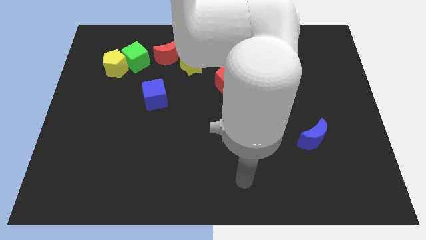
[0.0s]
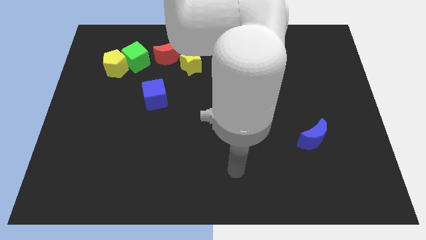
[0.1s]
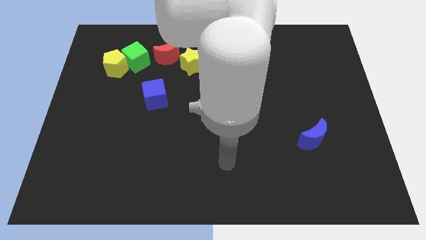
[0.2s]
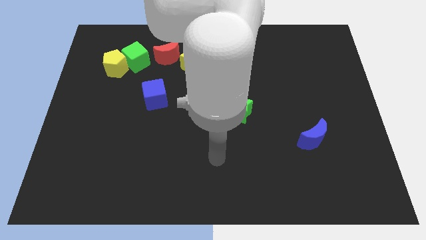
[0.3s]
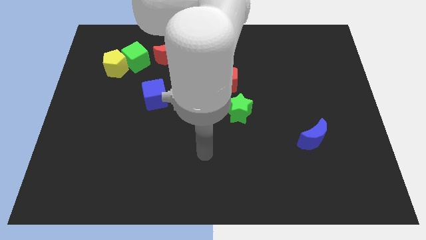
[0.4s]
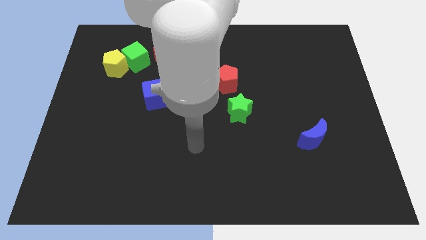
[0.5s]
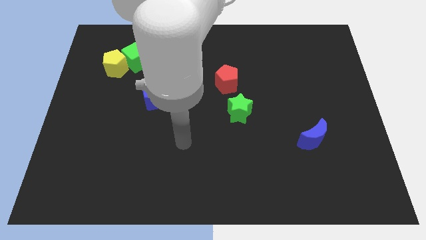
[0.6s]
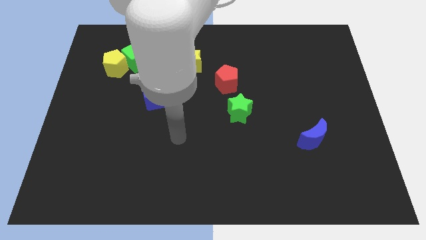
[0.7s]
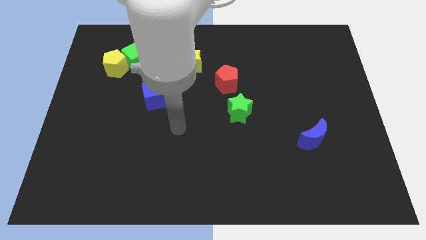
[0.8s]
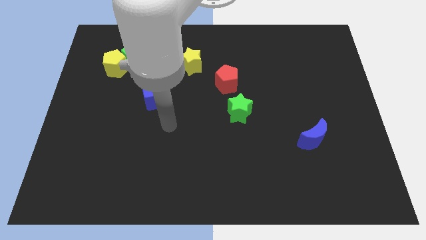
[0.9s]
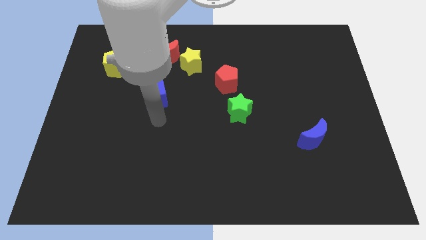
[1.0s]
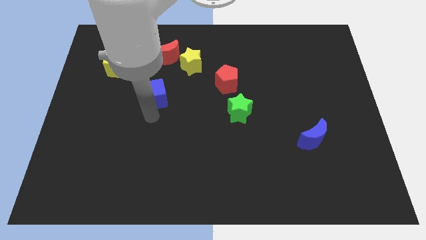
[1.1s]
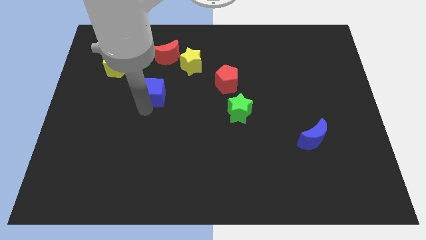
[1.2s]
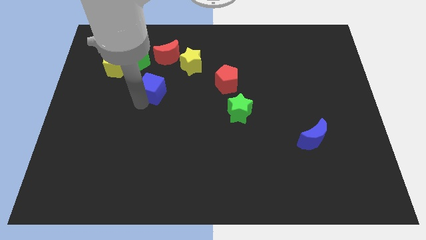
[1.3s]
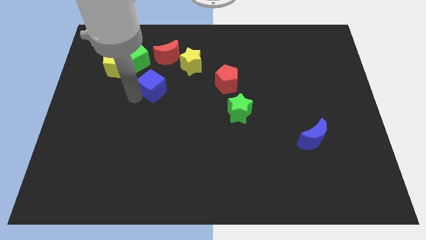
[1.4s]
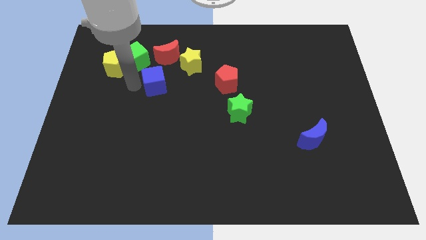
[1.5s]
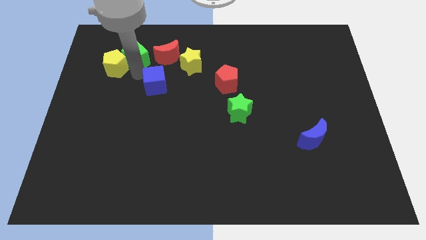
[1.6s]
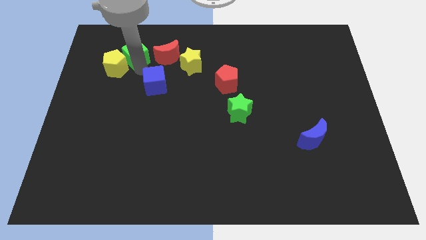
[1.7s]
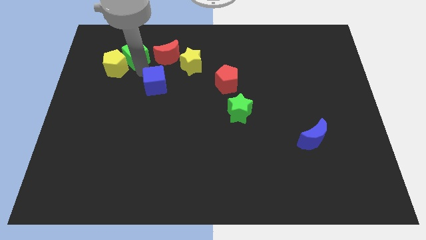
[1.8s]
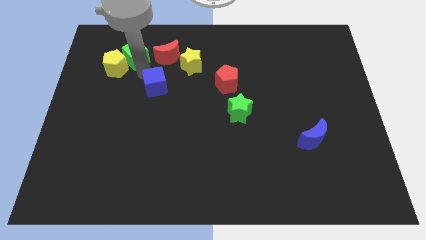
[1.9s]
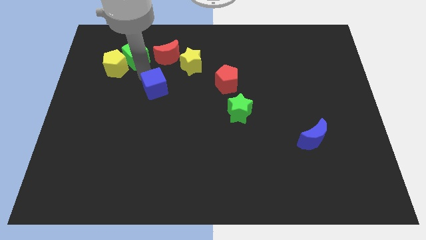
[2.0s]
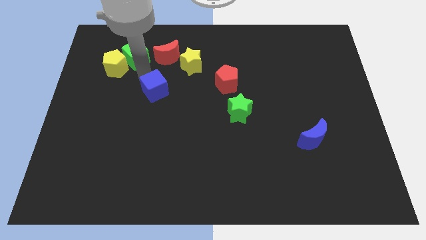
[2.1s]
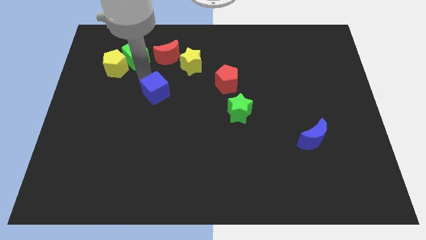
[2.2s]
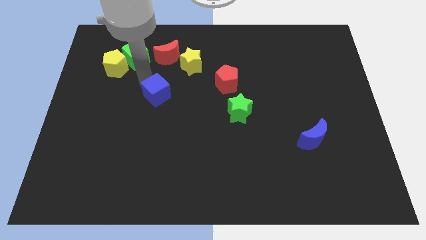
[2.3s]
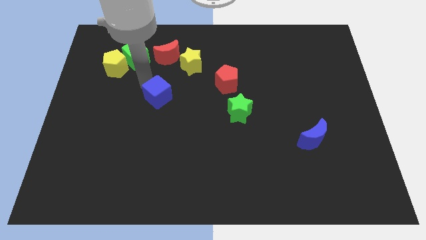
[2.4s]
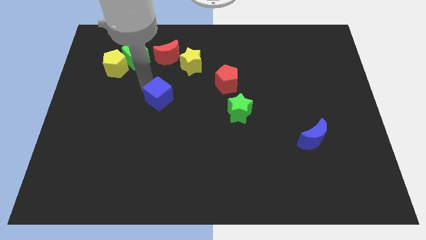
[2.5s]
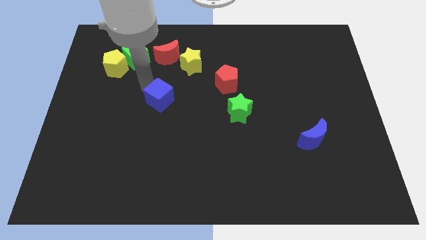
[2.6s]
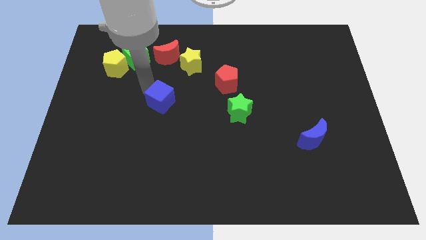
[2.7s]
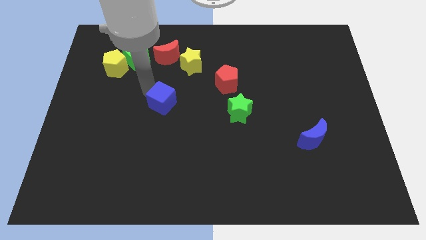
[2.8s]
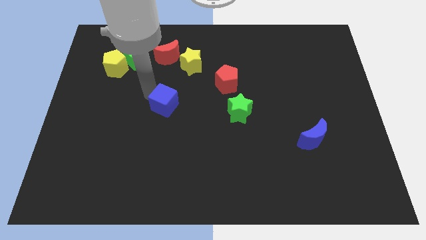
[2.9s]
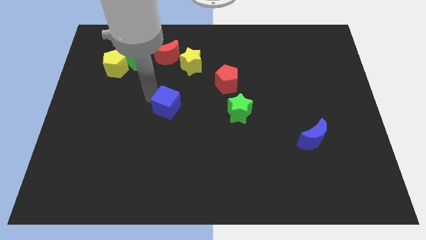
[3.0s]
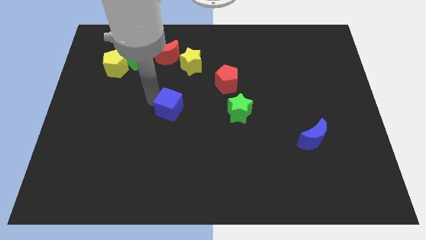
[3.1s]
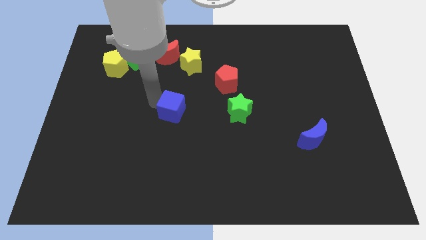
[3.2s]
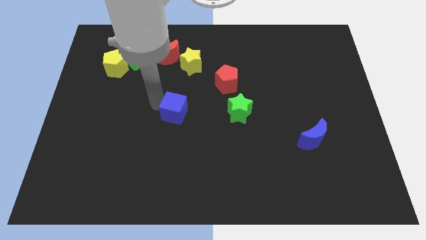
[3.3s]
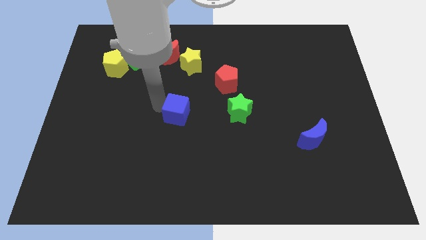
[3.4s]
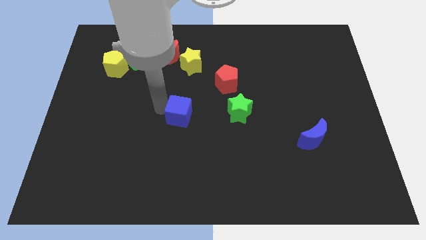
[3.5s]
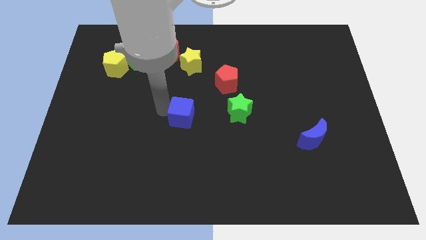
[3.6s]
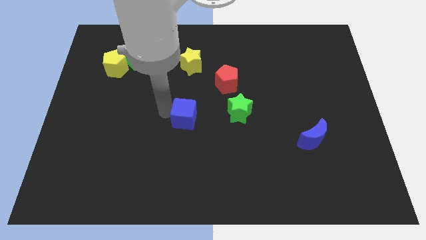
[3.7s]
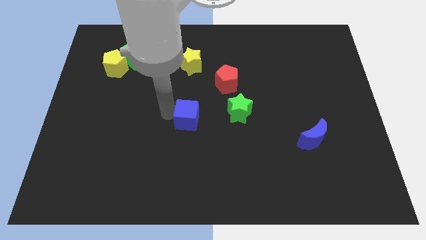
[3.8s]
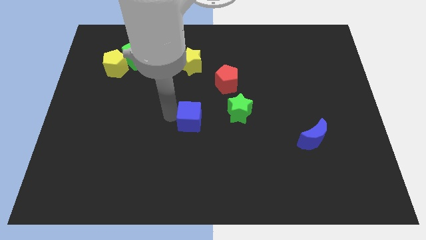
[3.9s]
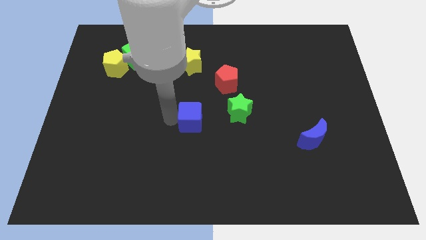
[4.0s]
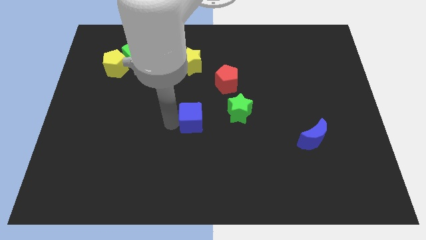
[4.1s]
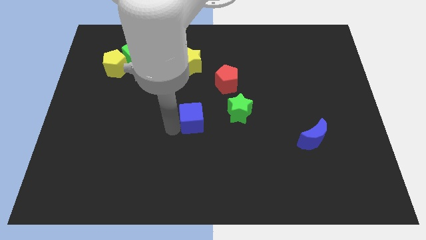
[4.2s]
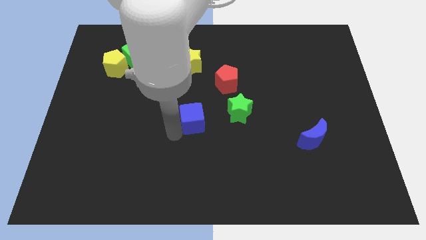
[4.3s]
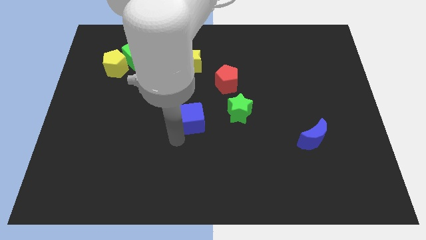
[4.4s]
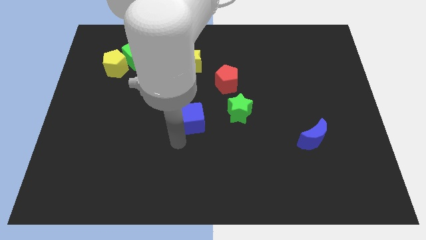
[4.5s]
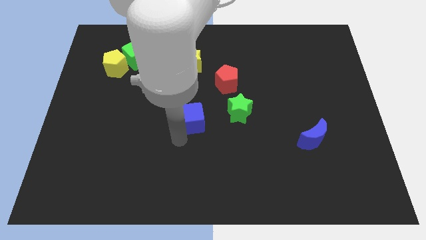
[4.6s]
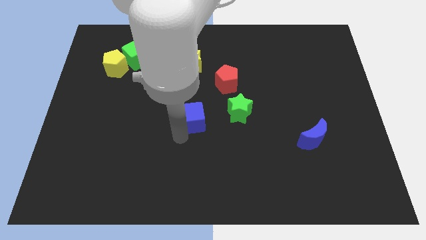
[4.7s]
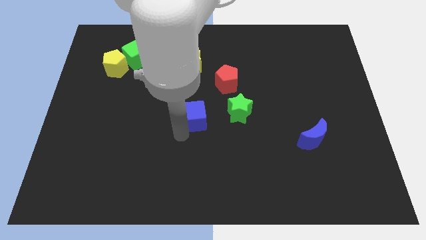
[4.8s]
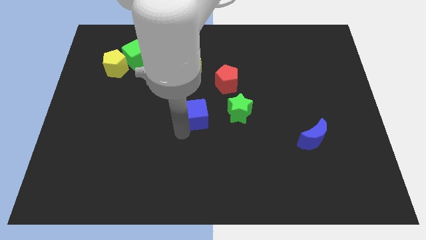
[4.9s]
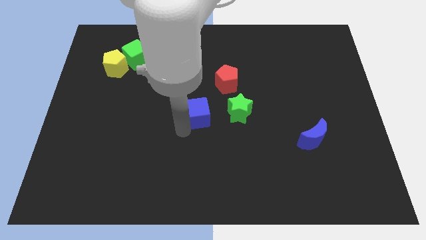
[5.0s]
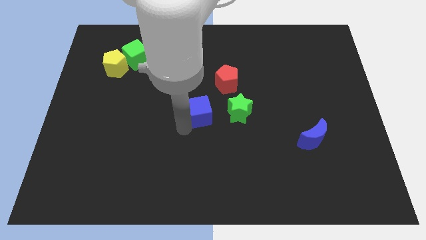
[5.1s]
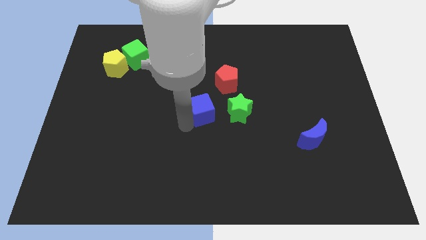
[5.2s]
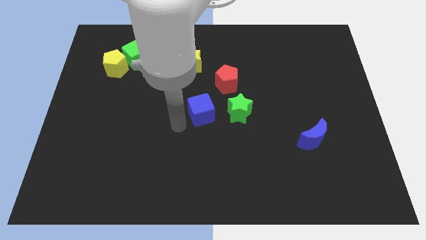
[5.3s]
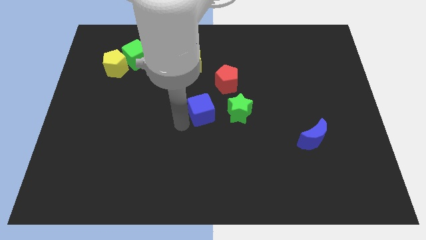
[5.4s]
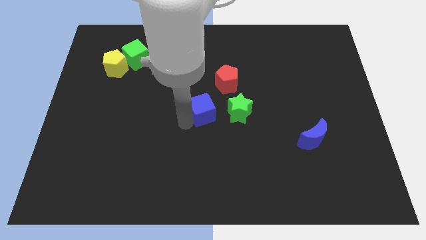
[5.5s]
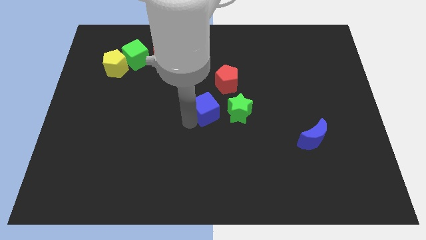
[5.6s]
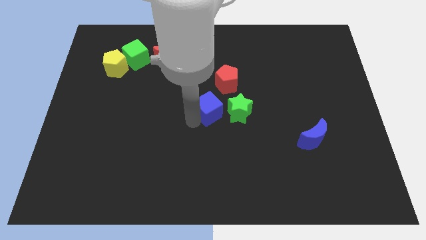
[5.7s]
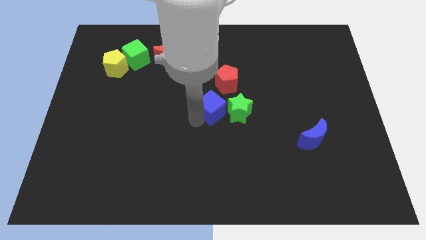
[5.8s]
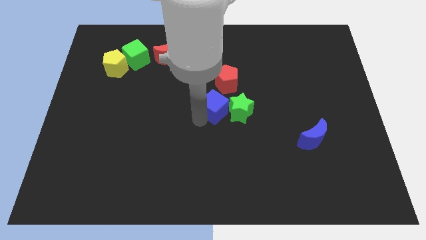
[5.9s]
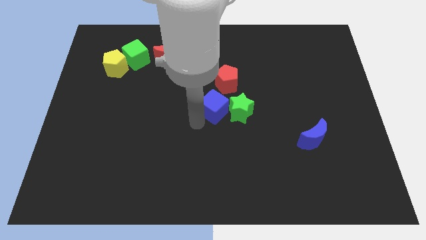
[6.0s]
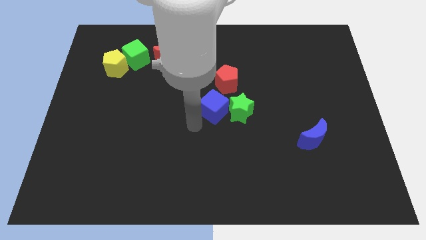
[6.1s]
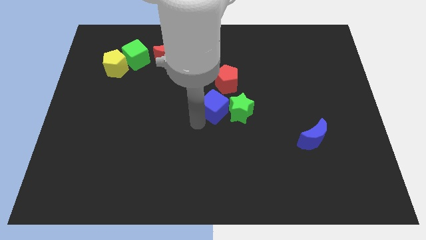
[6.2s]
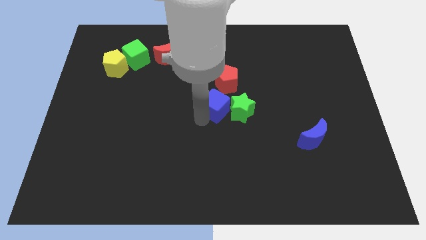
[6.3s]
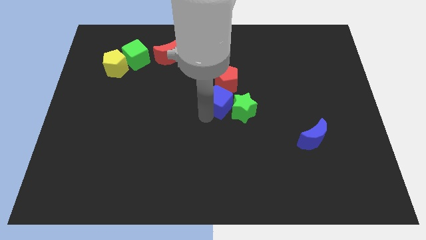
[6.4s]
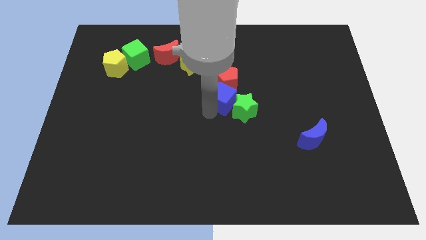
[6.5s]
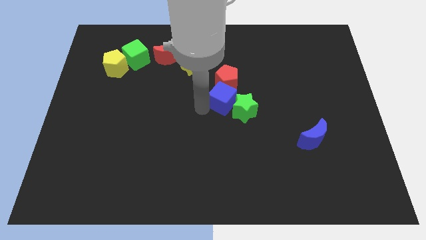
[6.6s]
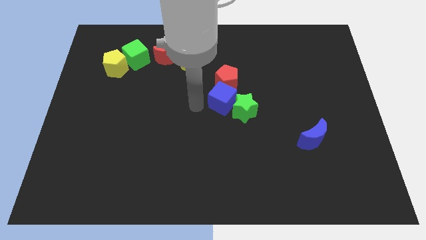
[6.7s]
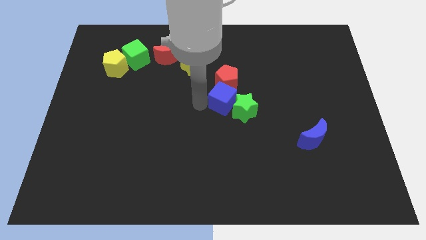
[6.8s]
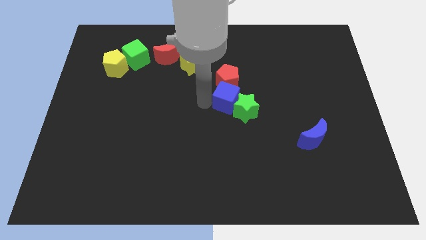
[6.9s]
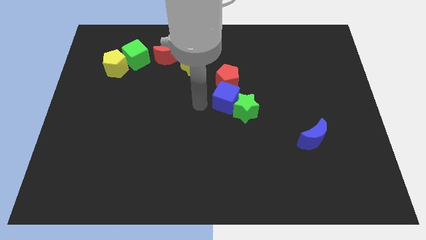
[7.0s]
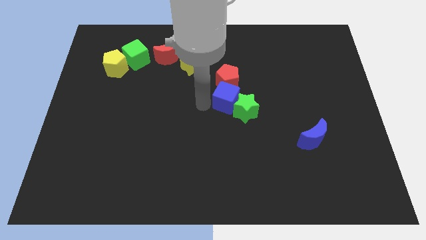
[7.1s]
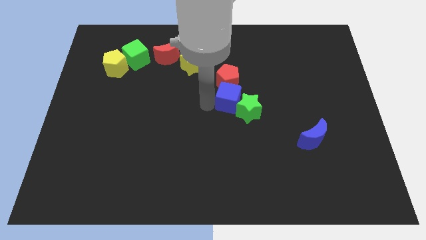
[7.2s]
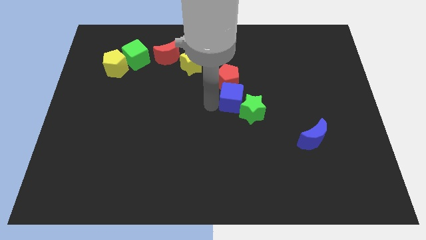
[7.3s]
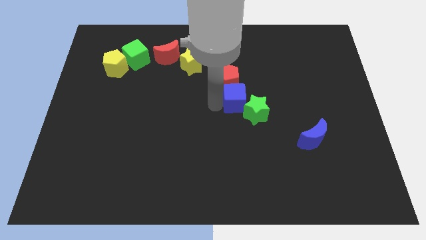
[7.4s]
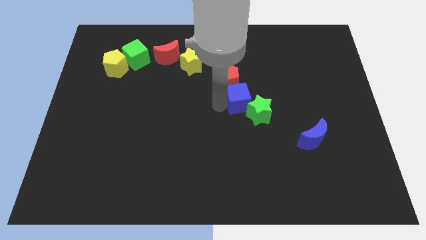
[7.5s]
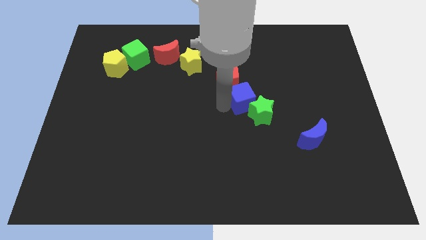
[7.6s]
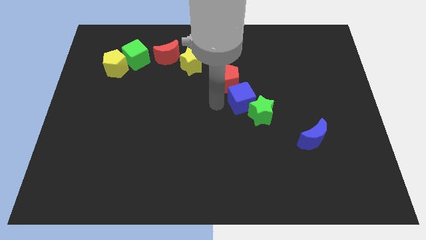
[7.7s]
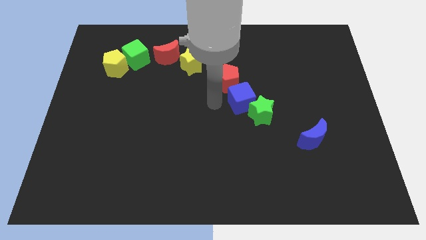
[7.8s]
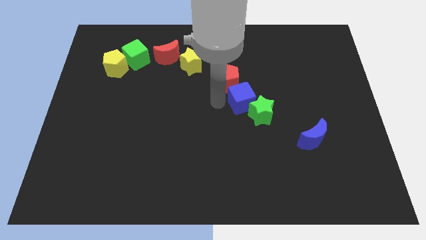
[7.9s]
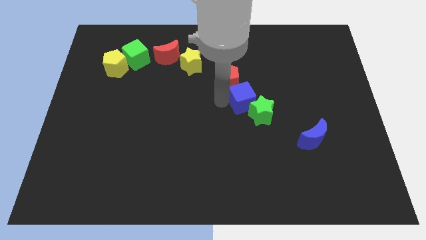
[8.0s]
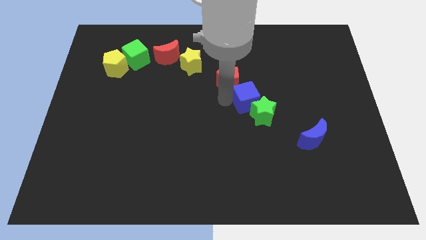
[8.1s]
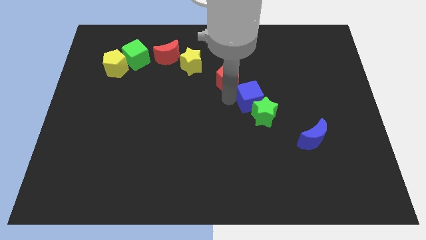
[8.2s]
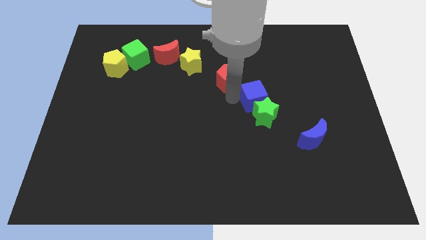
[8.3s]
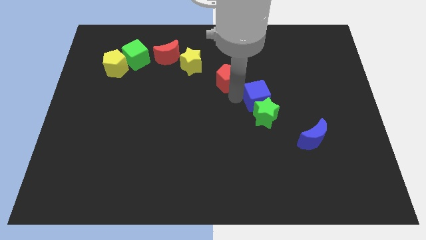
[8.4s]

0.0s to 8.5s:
move the blue cube to the top right of the green star
